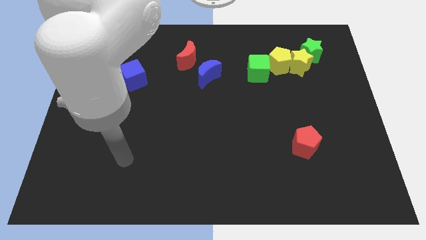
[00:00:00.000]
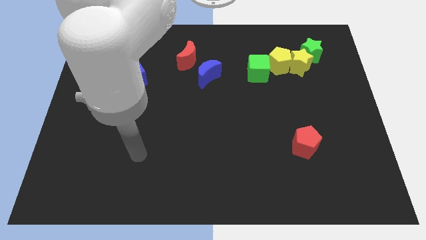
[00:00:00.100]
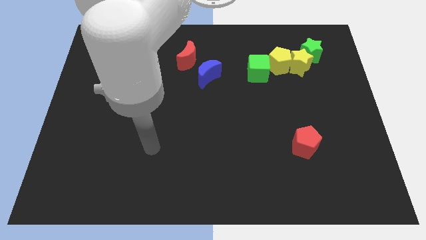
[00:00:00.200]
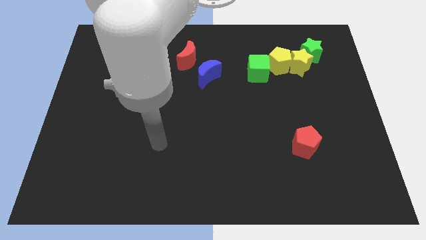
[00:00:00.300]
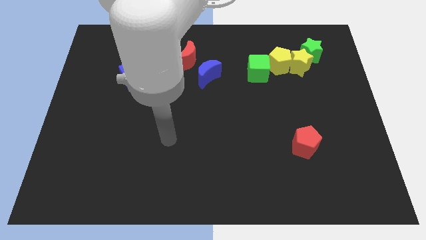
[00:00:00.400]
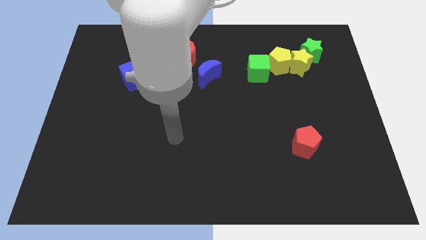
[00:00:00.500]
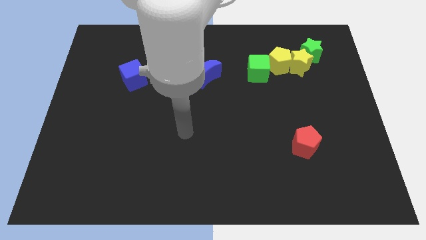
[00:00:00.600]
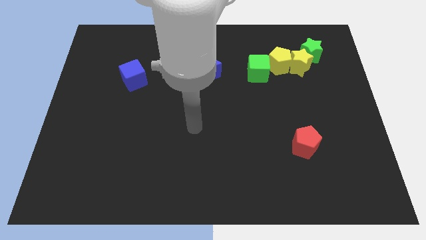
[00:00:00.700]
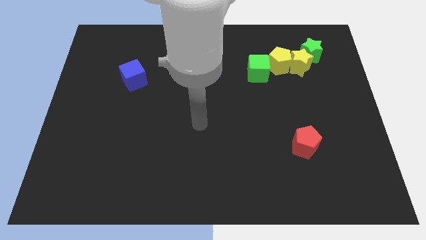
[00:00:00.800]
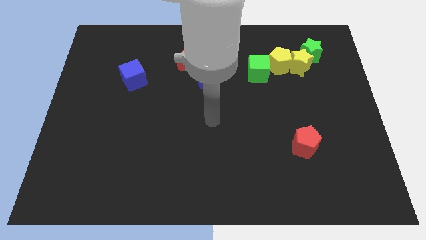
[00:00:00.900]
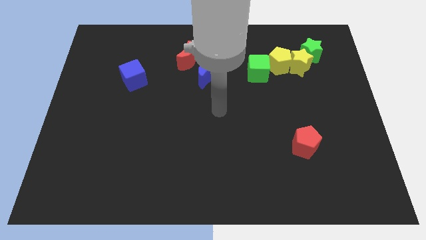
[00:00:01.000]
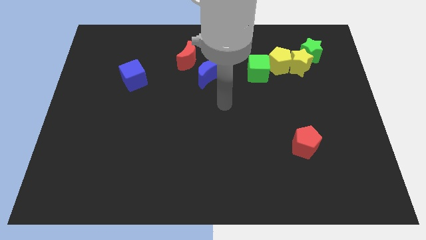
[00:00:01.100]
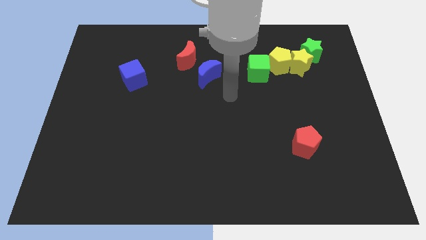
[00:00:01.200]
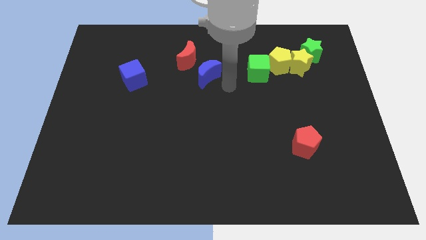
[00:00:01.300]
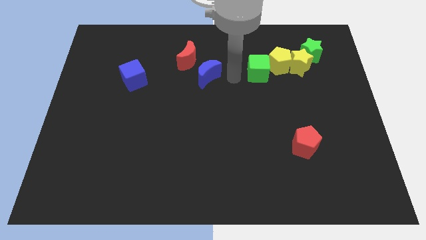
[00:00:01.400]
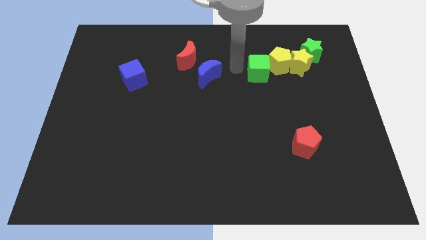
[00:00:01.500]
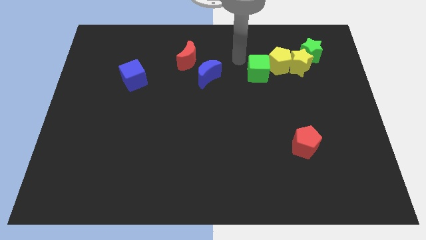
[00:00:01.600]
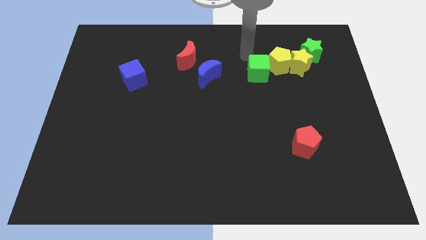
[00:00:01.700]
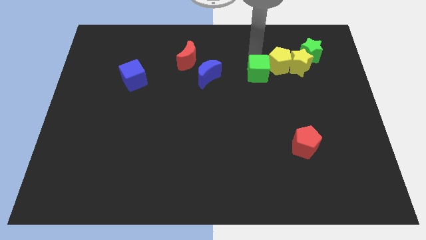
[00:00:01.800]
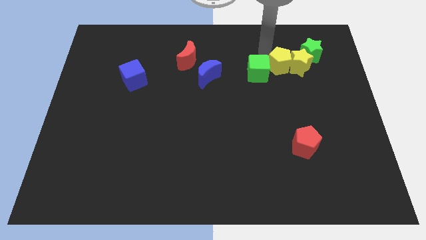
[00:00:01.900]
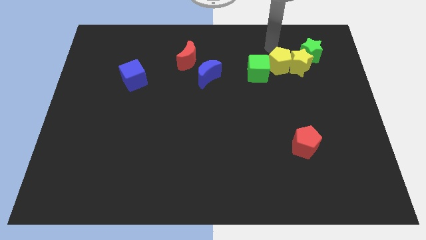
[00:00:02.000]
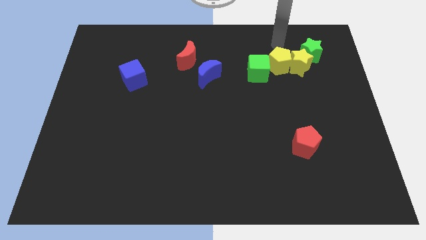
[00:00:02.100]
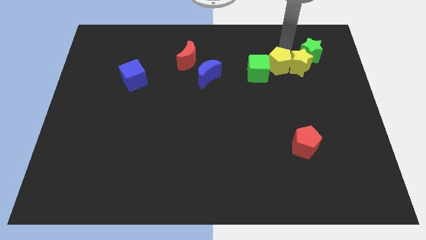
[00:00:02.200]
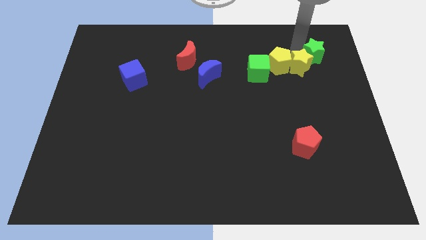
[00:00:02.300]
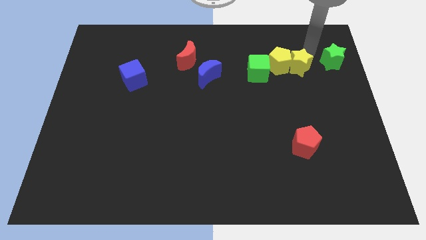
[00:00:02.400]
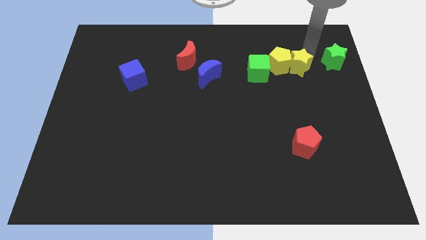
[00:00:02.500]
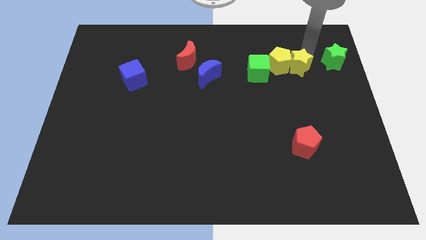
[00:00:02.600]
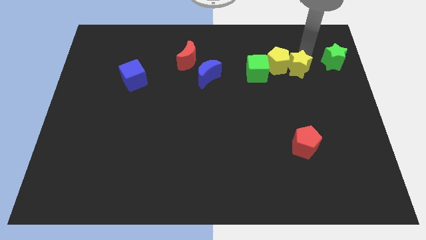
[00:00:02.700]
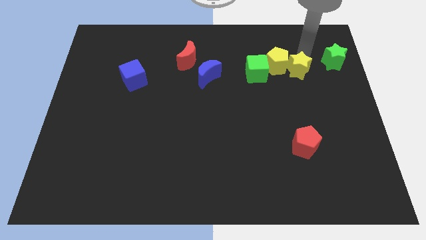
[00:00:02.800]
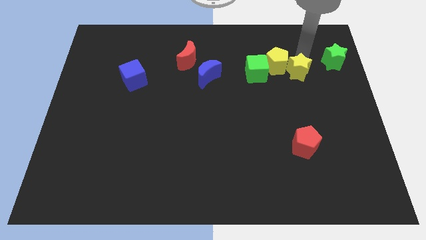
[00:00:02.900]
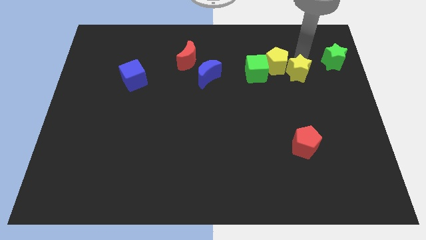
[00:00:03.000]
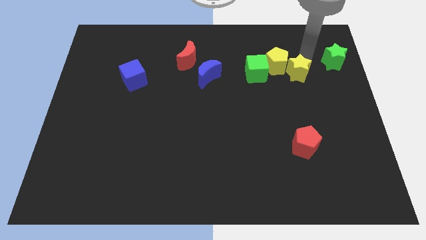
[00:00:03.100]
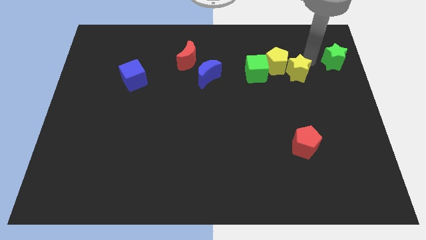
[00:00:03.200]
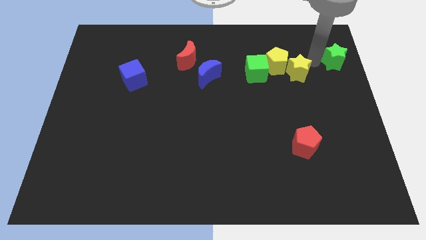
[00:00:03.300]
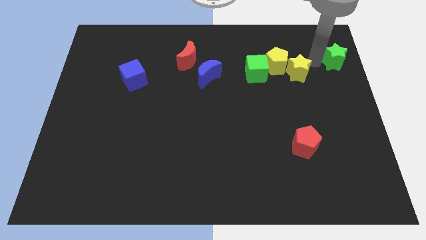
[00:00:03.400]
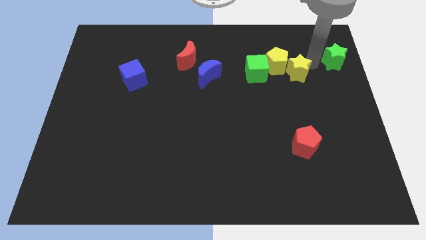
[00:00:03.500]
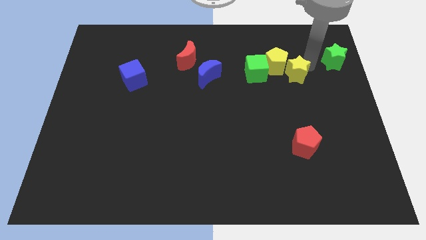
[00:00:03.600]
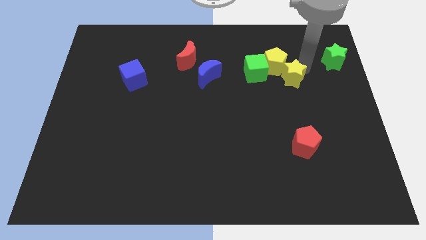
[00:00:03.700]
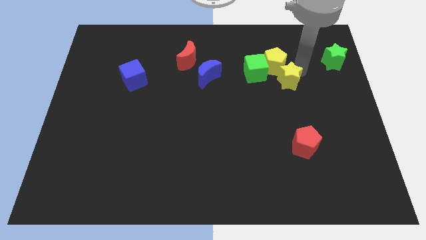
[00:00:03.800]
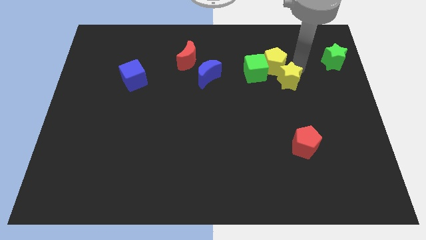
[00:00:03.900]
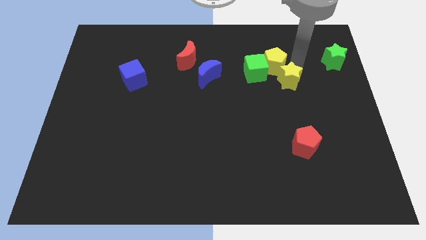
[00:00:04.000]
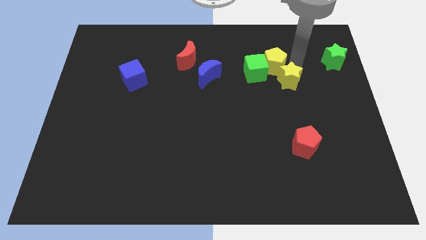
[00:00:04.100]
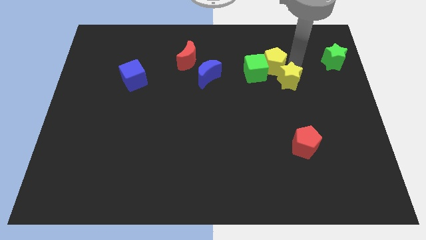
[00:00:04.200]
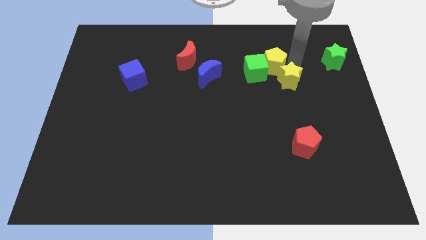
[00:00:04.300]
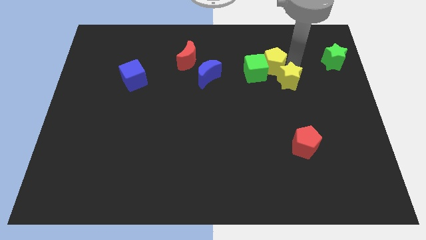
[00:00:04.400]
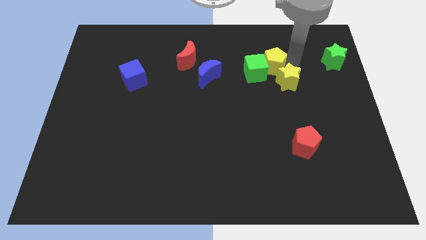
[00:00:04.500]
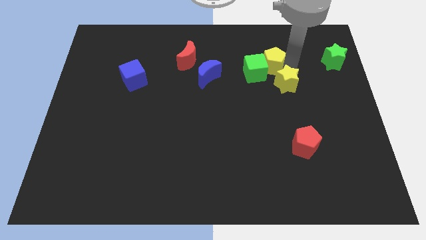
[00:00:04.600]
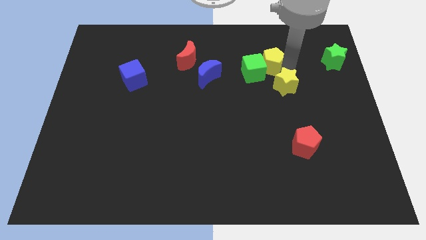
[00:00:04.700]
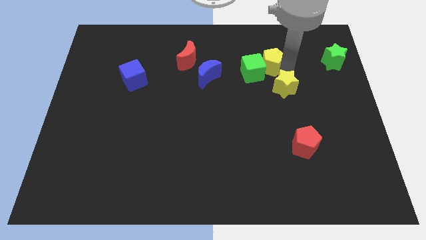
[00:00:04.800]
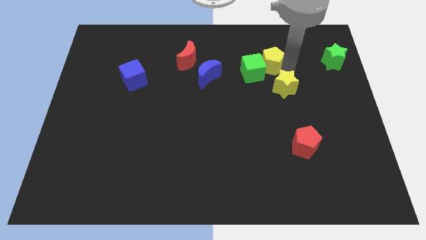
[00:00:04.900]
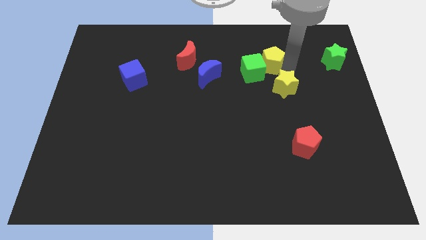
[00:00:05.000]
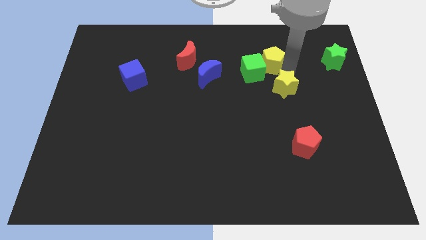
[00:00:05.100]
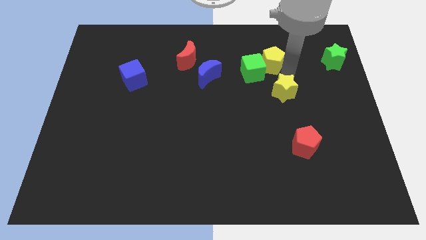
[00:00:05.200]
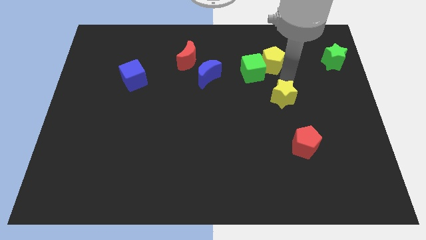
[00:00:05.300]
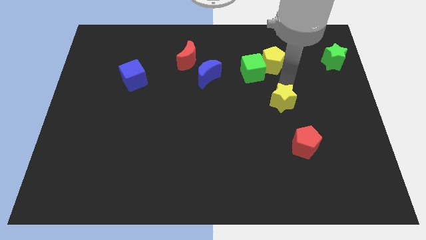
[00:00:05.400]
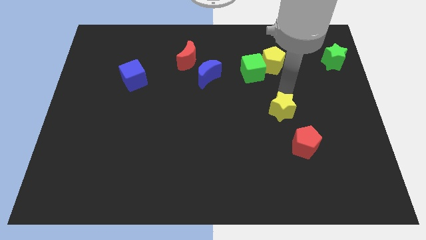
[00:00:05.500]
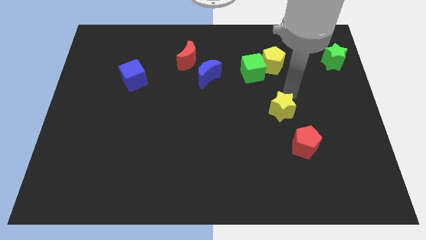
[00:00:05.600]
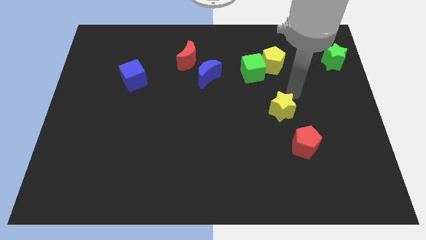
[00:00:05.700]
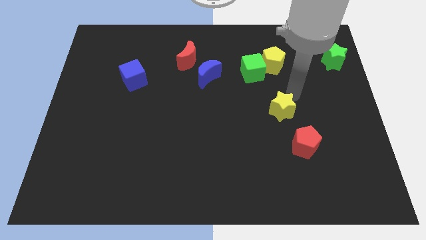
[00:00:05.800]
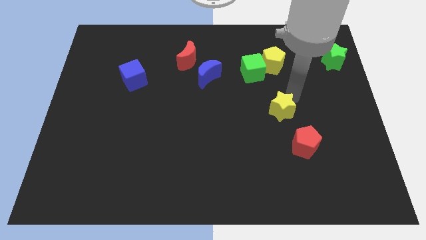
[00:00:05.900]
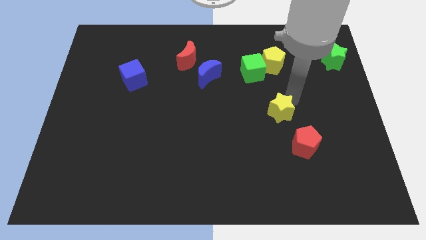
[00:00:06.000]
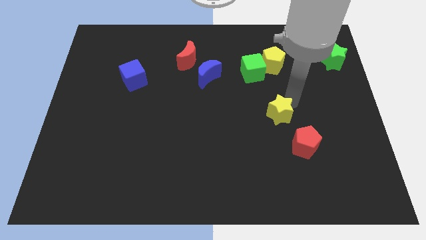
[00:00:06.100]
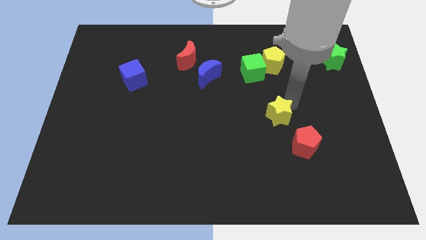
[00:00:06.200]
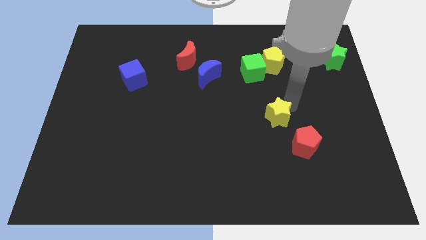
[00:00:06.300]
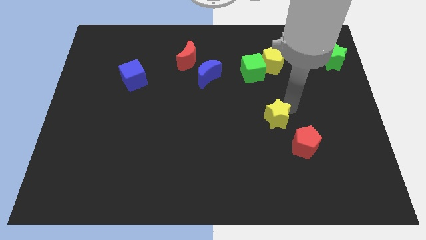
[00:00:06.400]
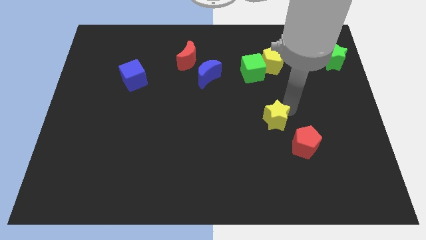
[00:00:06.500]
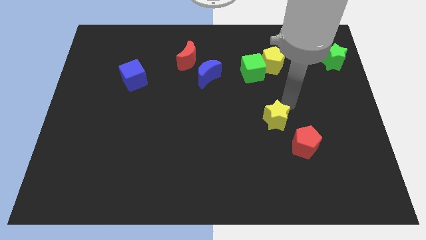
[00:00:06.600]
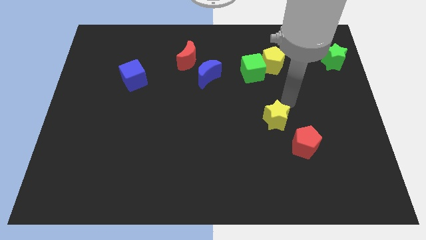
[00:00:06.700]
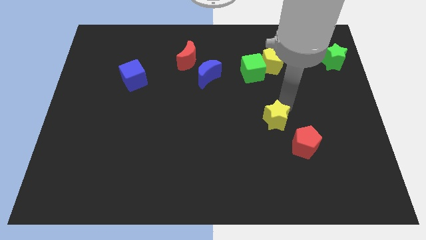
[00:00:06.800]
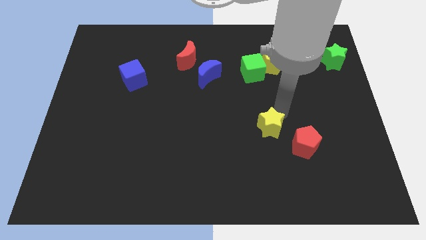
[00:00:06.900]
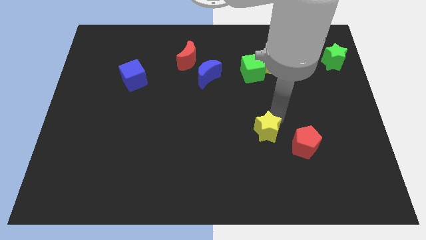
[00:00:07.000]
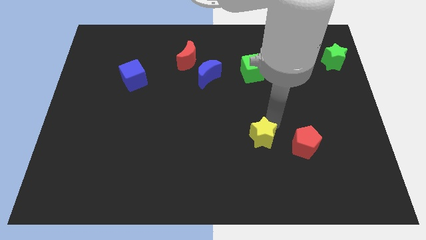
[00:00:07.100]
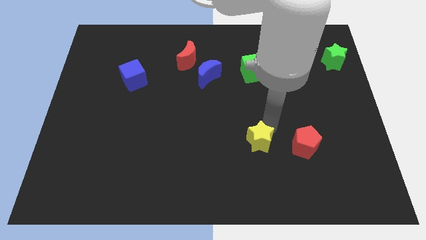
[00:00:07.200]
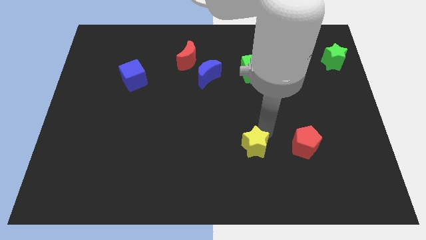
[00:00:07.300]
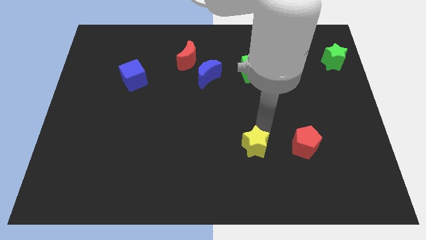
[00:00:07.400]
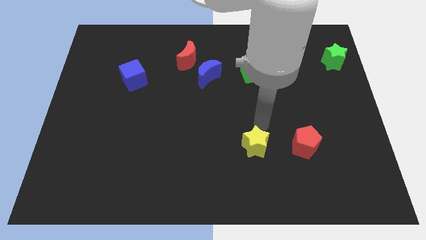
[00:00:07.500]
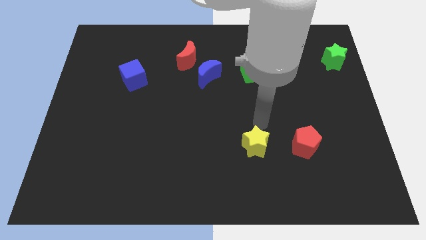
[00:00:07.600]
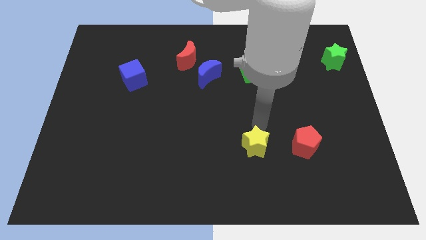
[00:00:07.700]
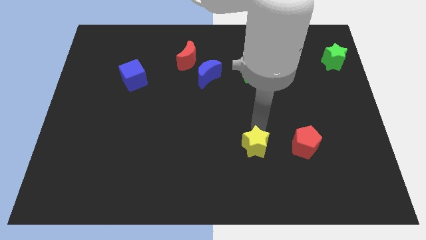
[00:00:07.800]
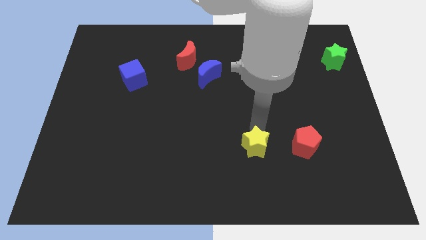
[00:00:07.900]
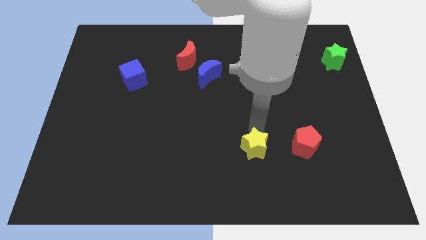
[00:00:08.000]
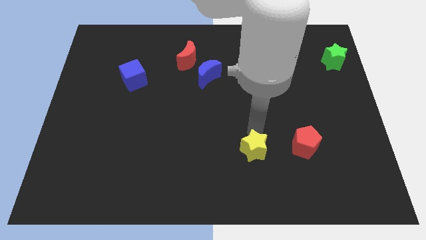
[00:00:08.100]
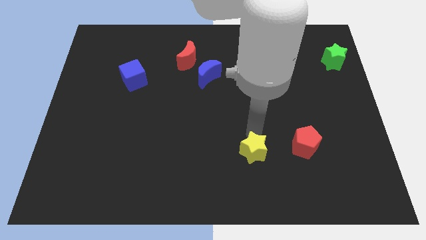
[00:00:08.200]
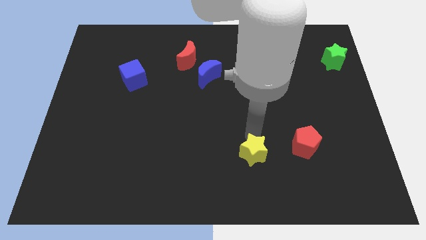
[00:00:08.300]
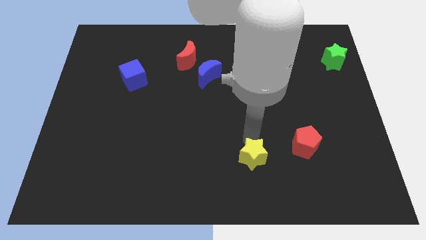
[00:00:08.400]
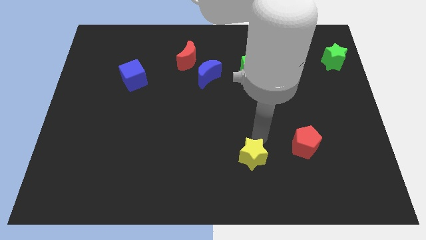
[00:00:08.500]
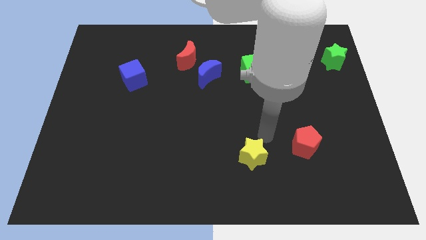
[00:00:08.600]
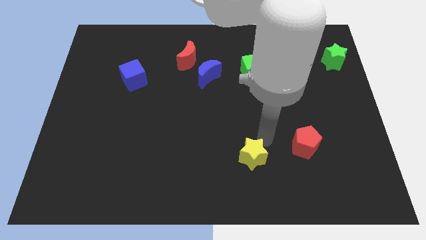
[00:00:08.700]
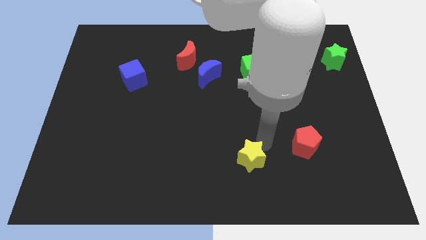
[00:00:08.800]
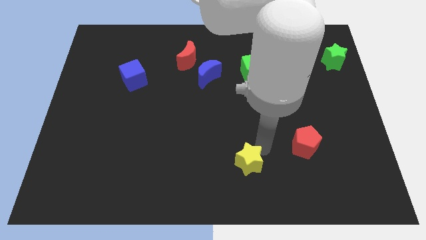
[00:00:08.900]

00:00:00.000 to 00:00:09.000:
slide the yellow star to the bottom side
